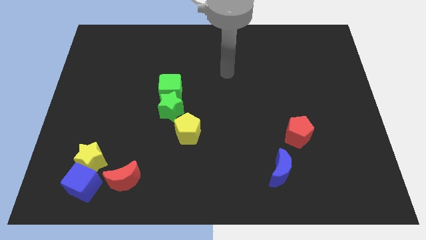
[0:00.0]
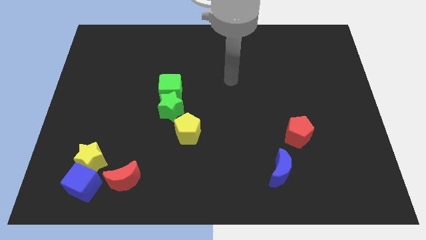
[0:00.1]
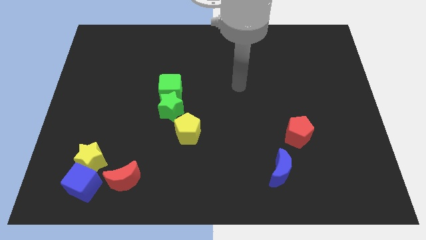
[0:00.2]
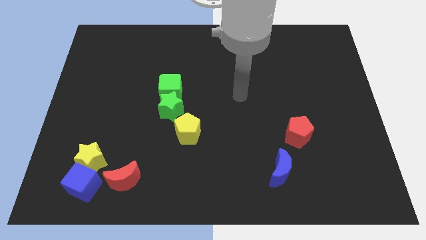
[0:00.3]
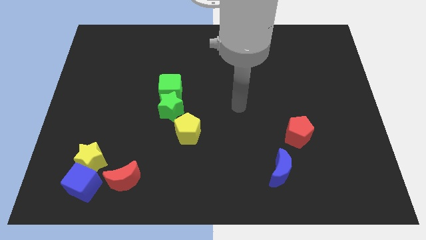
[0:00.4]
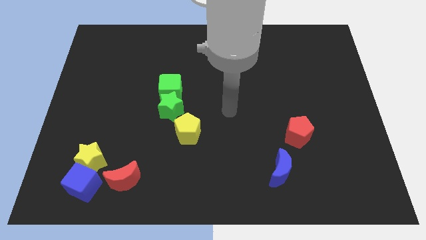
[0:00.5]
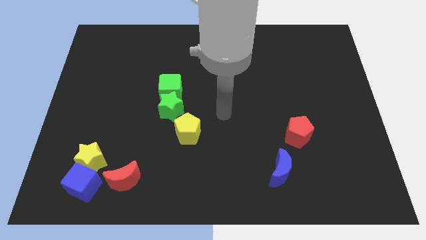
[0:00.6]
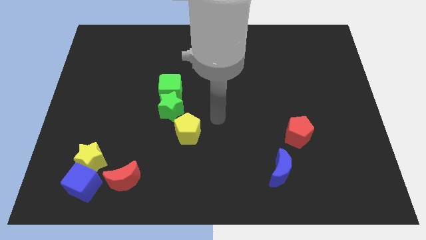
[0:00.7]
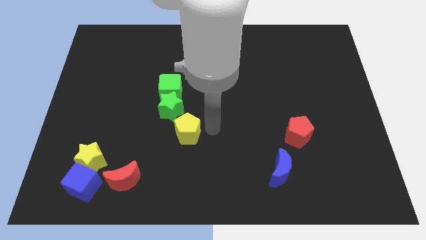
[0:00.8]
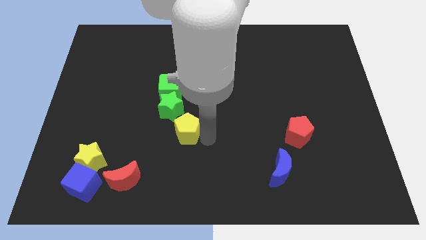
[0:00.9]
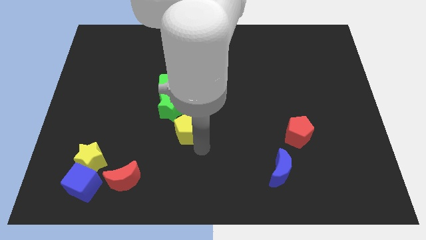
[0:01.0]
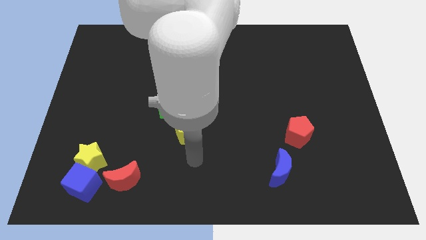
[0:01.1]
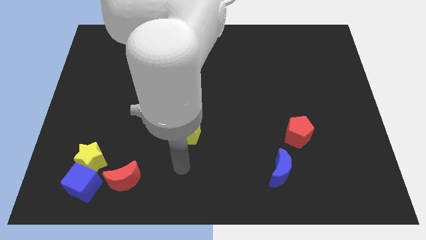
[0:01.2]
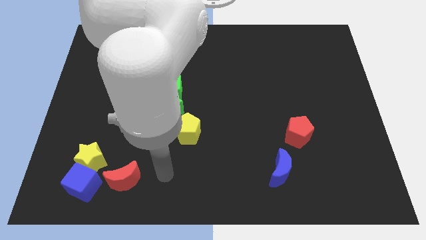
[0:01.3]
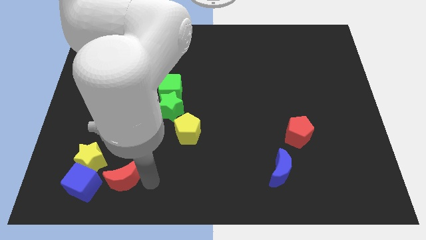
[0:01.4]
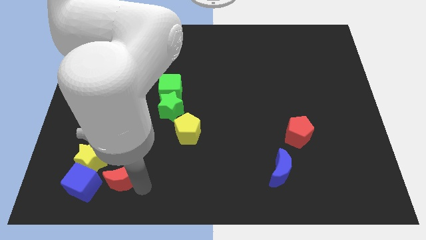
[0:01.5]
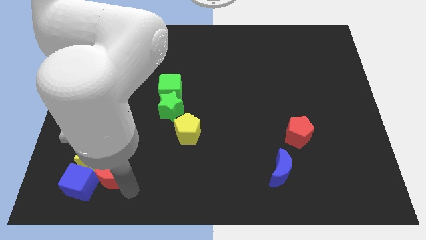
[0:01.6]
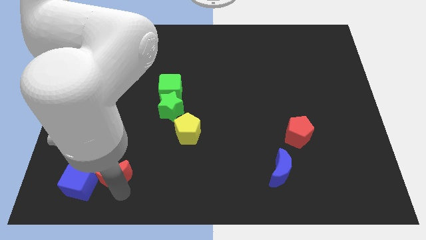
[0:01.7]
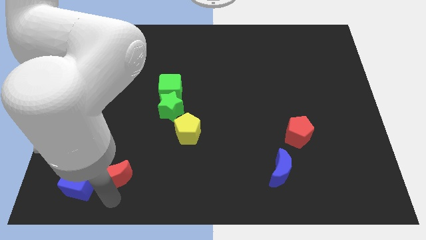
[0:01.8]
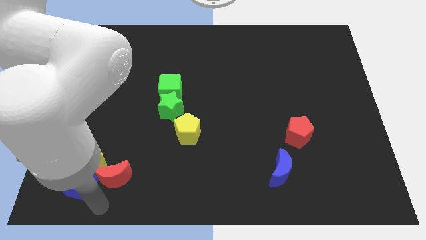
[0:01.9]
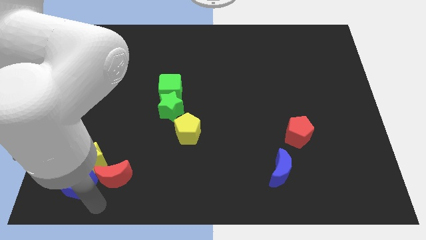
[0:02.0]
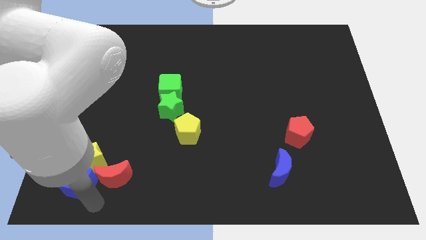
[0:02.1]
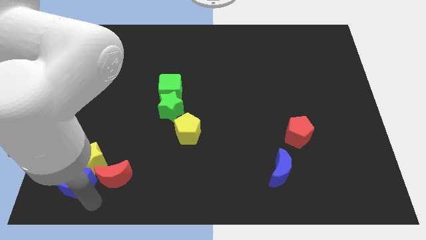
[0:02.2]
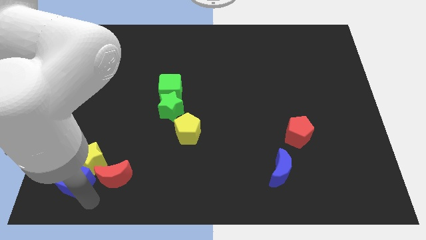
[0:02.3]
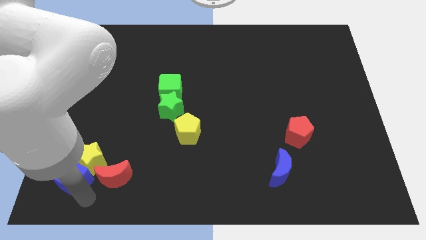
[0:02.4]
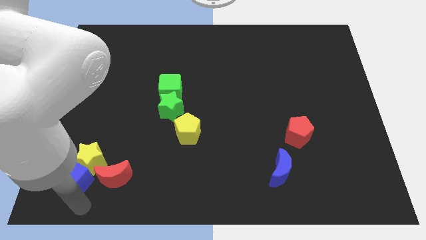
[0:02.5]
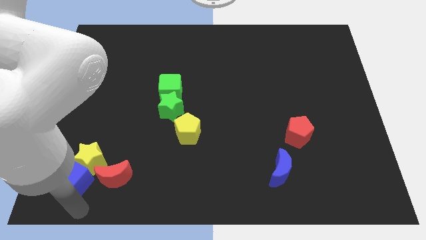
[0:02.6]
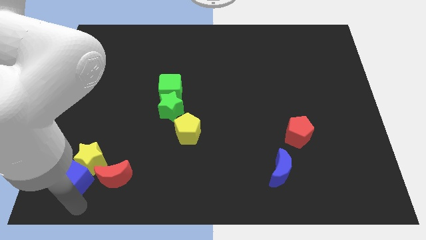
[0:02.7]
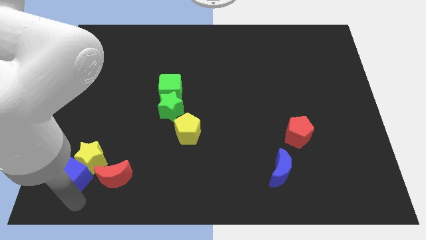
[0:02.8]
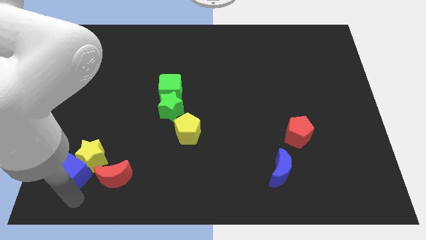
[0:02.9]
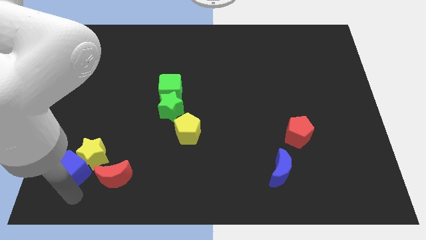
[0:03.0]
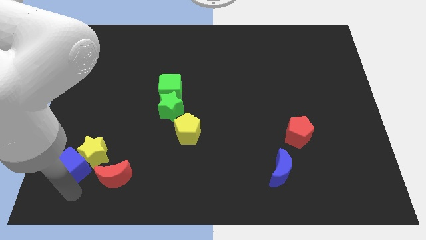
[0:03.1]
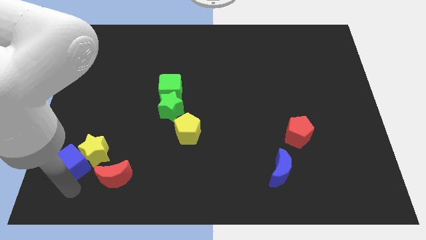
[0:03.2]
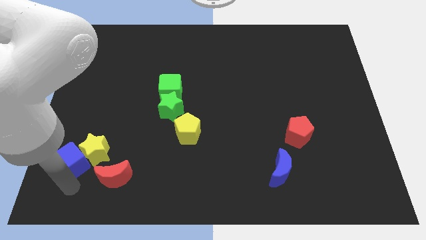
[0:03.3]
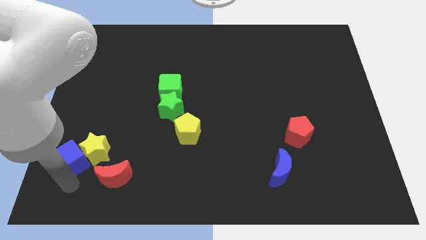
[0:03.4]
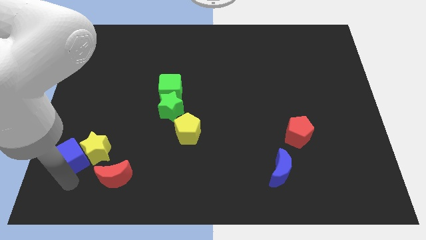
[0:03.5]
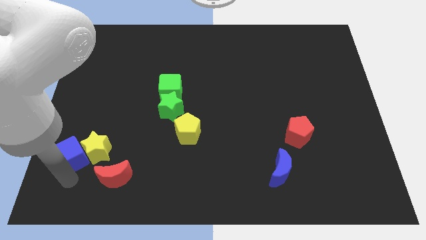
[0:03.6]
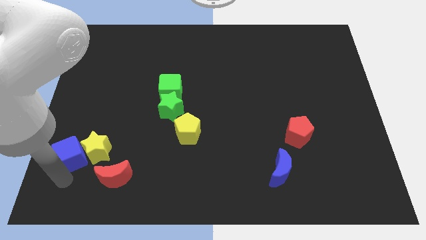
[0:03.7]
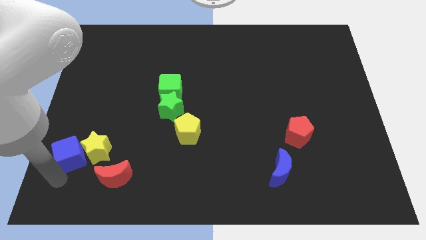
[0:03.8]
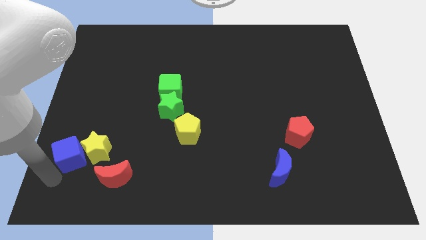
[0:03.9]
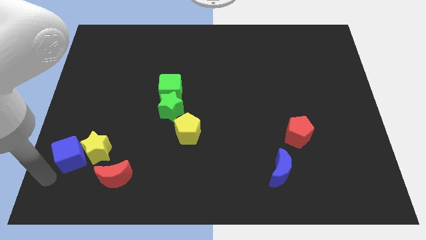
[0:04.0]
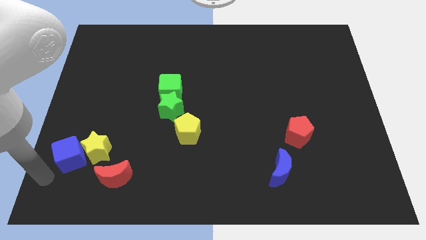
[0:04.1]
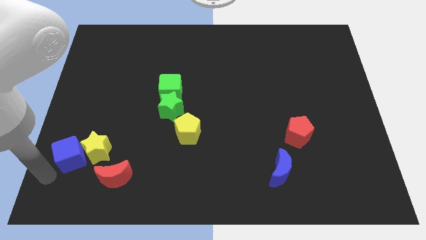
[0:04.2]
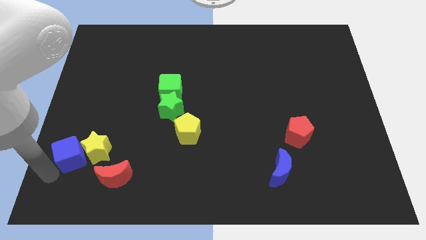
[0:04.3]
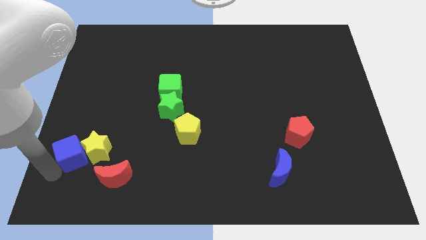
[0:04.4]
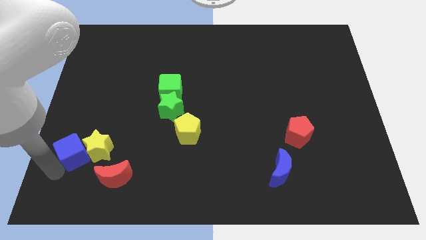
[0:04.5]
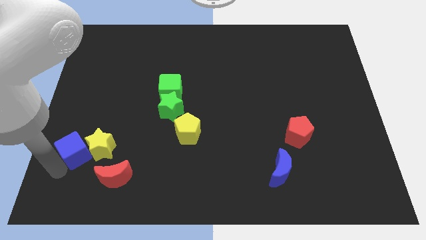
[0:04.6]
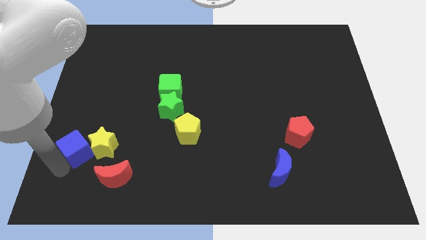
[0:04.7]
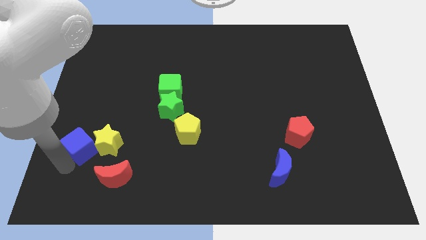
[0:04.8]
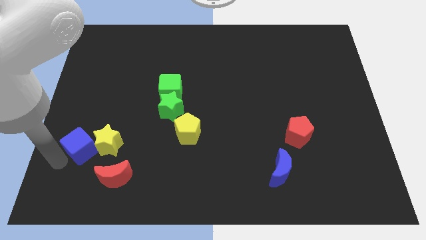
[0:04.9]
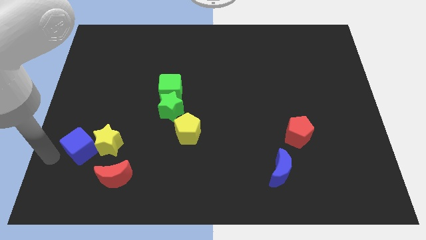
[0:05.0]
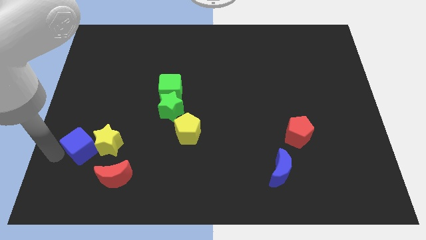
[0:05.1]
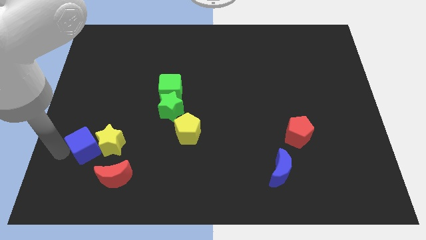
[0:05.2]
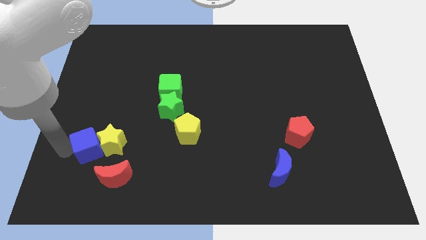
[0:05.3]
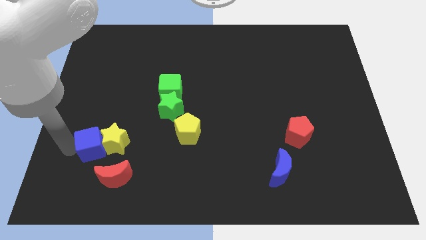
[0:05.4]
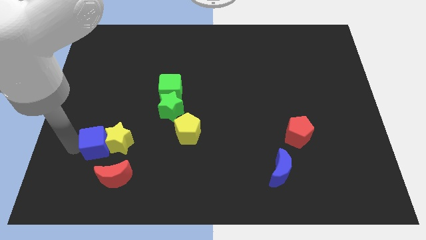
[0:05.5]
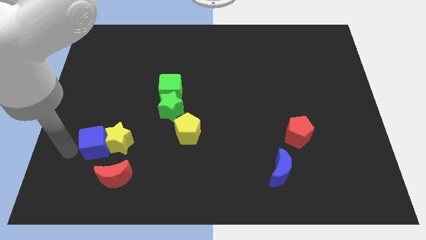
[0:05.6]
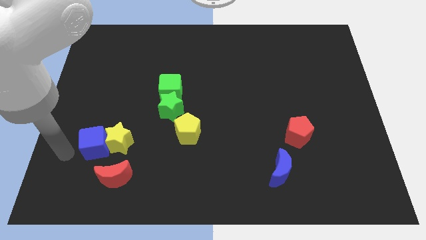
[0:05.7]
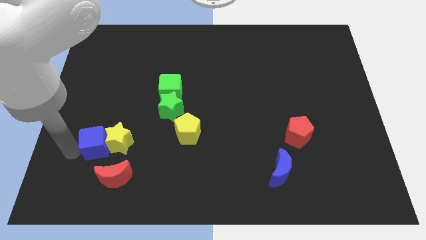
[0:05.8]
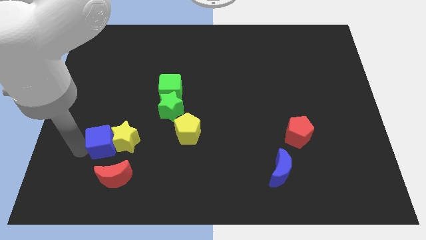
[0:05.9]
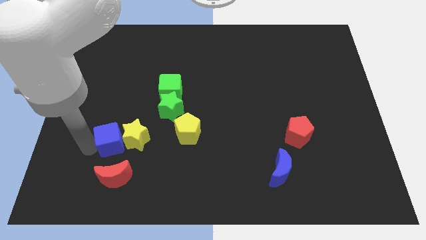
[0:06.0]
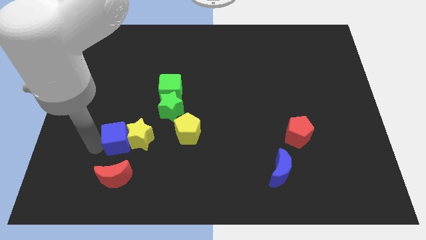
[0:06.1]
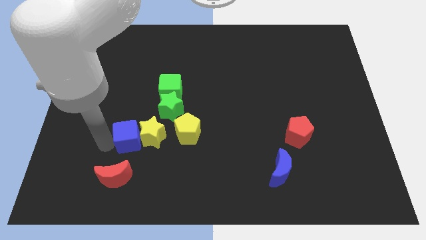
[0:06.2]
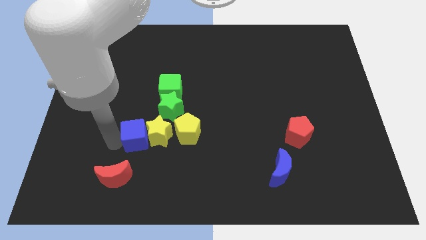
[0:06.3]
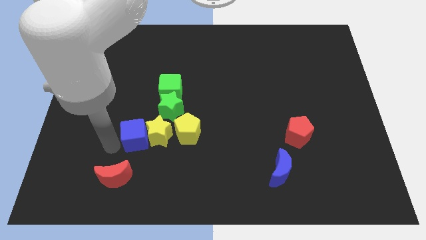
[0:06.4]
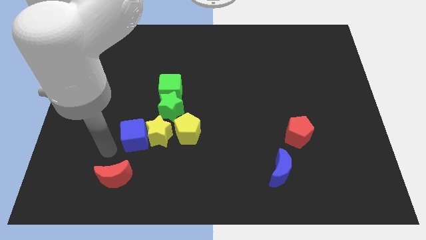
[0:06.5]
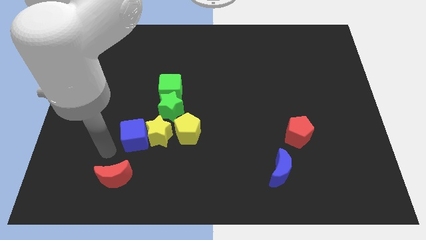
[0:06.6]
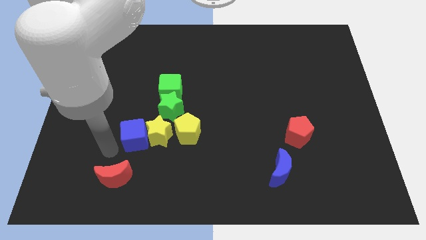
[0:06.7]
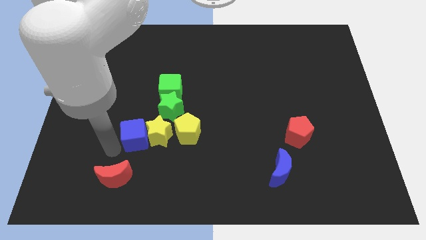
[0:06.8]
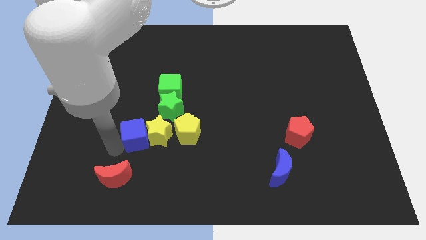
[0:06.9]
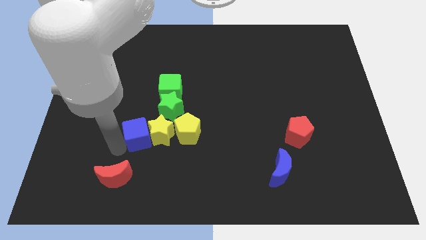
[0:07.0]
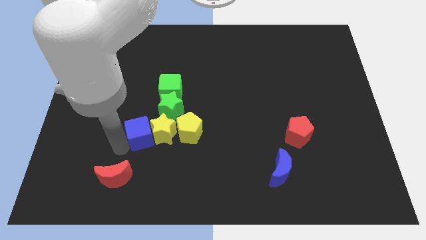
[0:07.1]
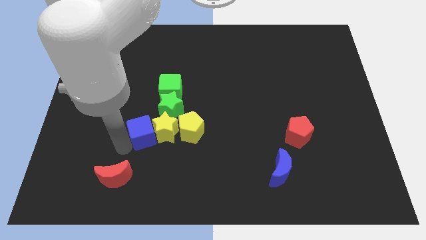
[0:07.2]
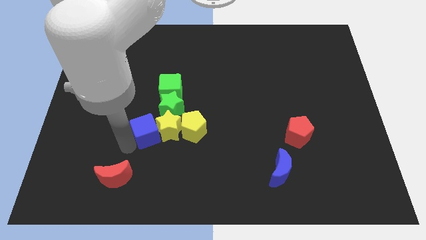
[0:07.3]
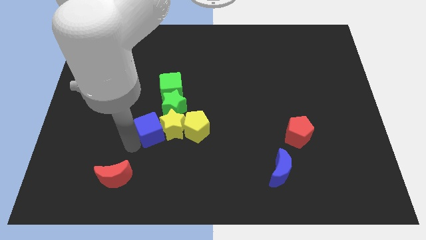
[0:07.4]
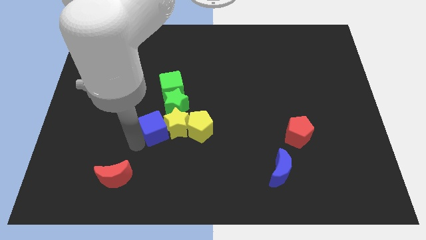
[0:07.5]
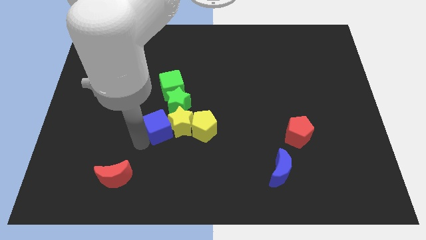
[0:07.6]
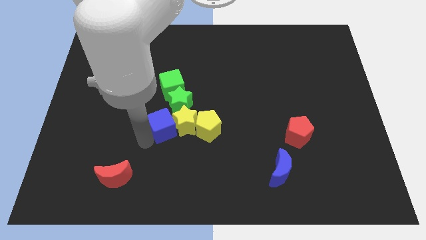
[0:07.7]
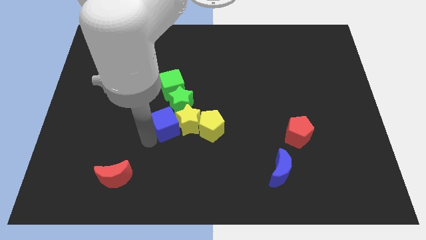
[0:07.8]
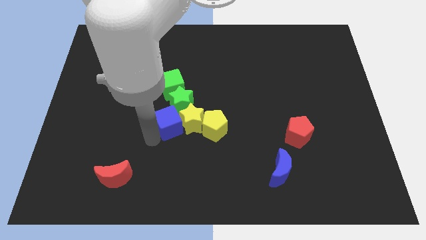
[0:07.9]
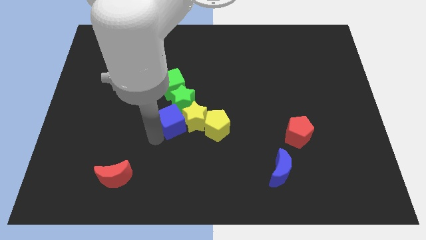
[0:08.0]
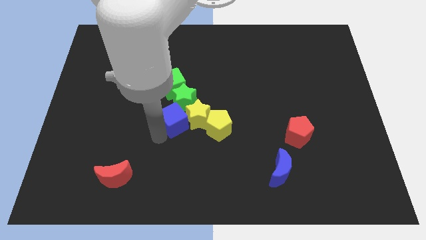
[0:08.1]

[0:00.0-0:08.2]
move the blue cube to the green star
